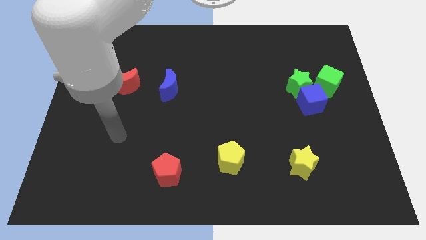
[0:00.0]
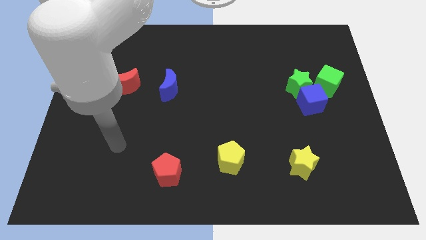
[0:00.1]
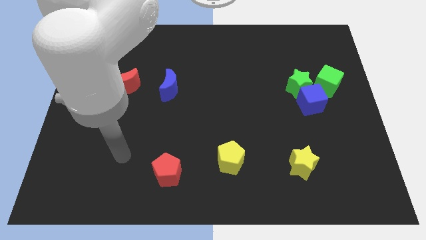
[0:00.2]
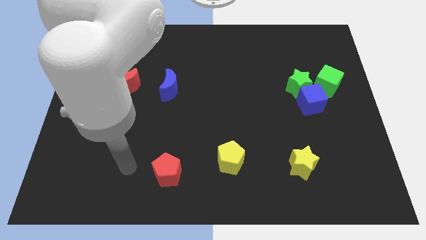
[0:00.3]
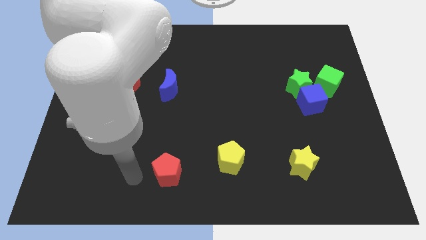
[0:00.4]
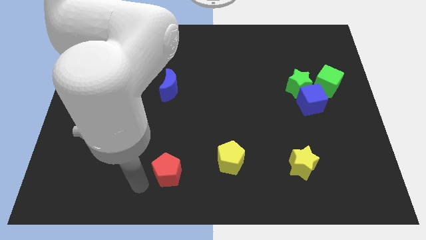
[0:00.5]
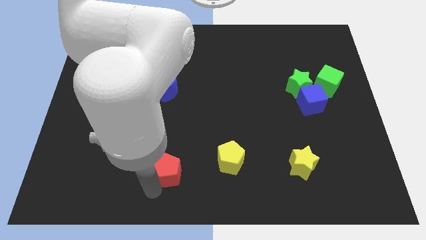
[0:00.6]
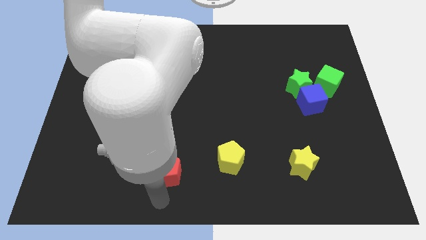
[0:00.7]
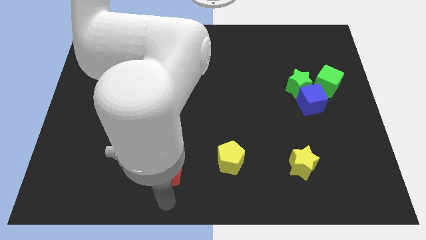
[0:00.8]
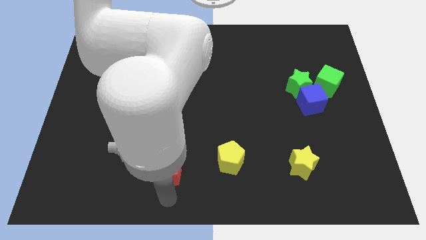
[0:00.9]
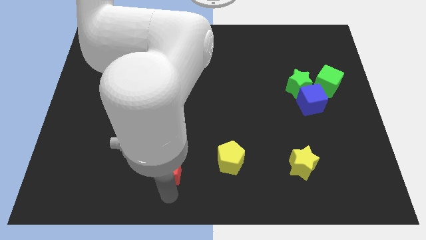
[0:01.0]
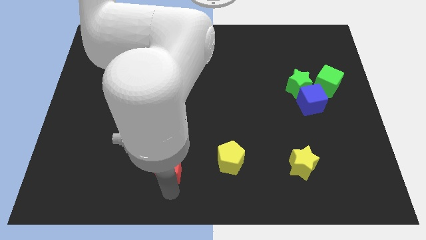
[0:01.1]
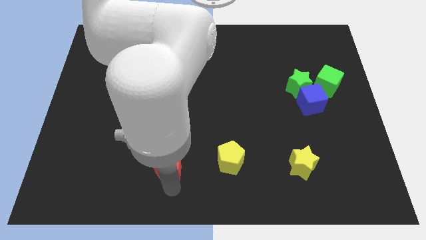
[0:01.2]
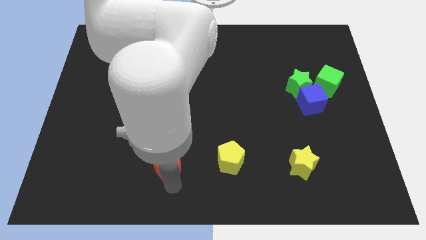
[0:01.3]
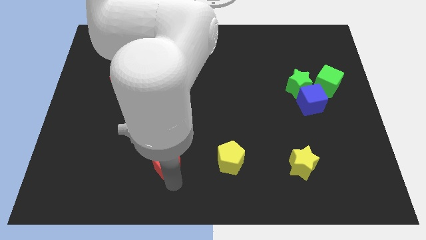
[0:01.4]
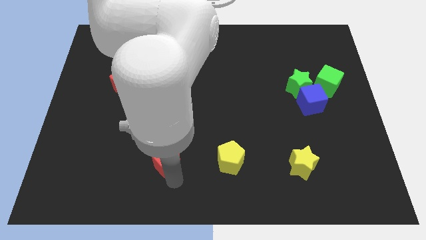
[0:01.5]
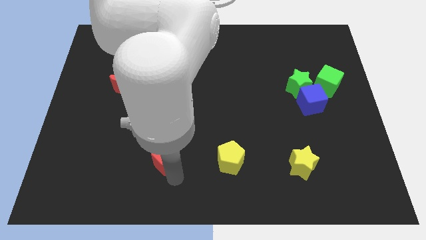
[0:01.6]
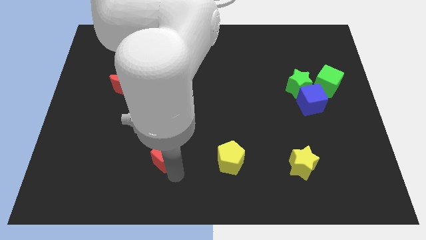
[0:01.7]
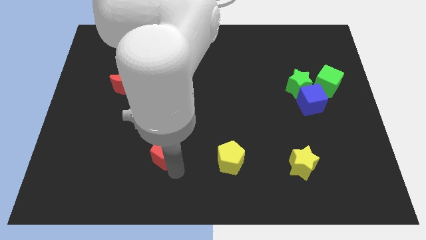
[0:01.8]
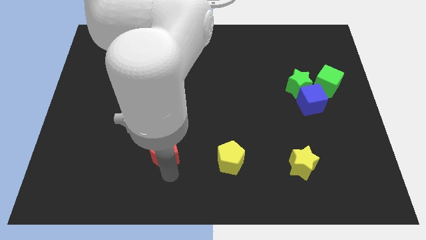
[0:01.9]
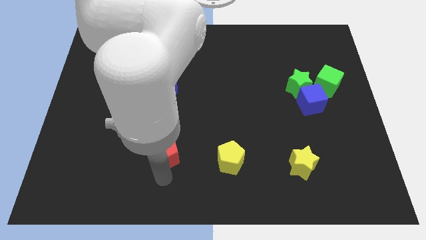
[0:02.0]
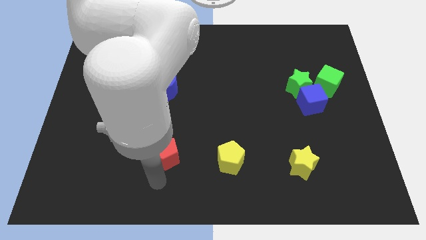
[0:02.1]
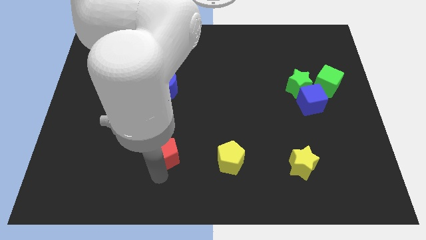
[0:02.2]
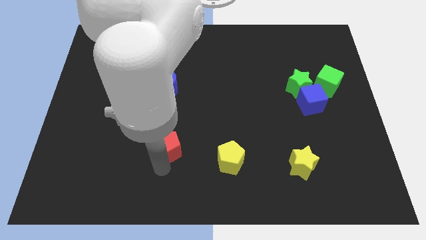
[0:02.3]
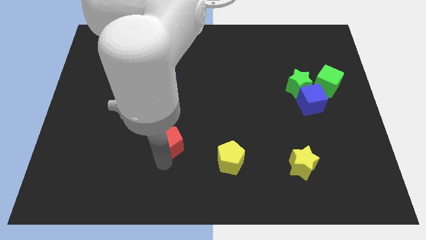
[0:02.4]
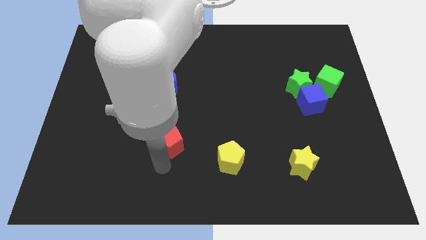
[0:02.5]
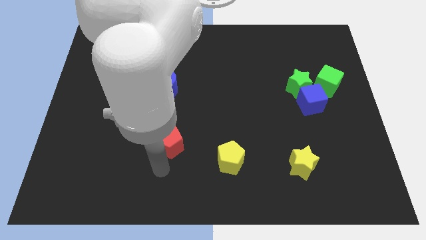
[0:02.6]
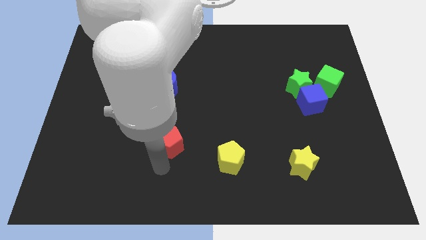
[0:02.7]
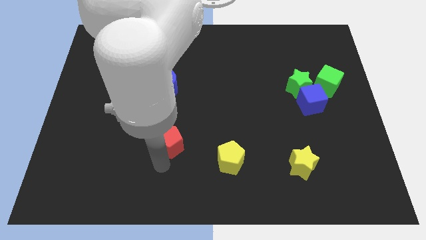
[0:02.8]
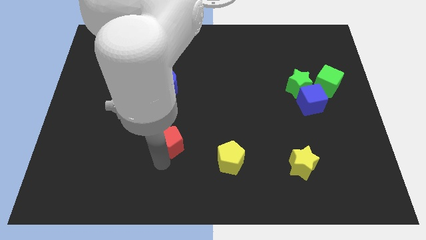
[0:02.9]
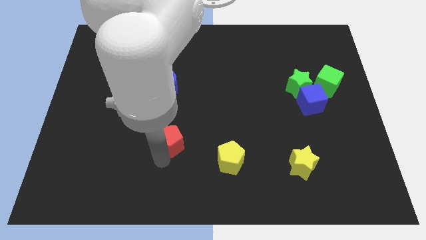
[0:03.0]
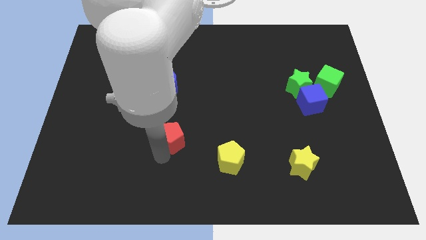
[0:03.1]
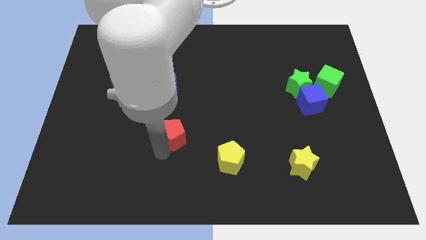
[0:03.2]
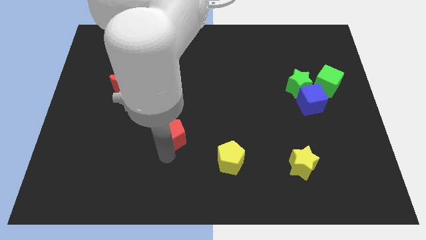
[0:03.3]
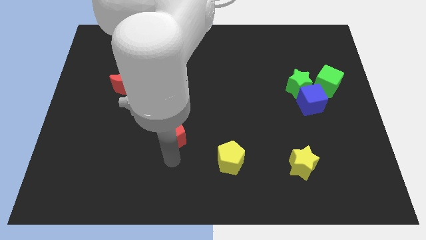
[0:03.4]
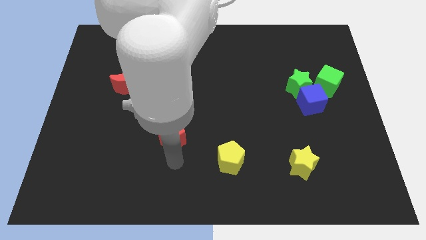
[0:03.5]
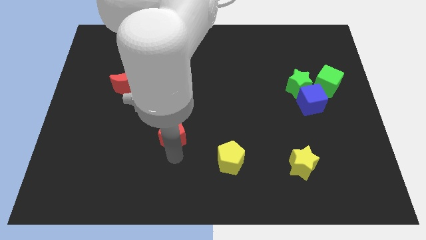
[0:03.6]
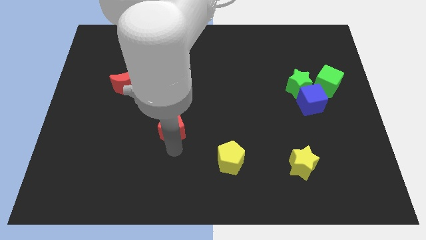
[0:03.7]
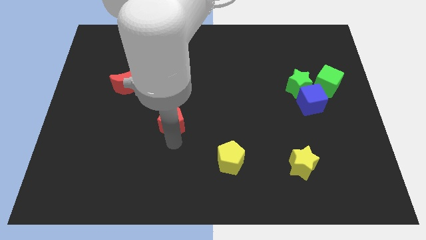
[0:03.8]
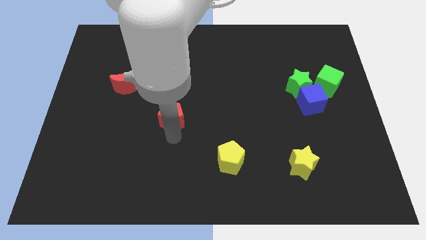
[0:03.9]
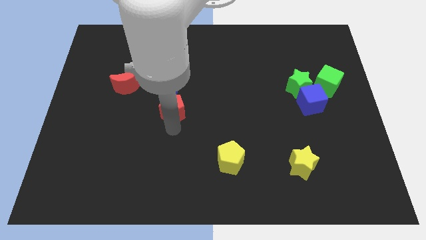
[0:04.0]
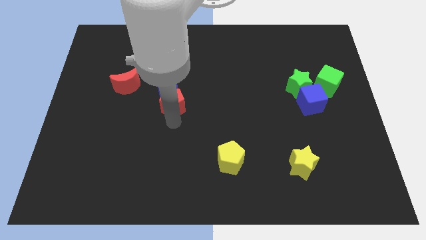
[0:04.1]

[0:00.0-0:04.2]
put the red pentagon towards the blue moon

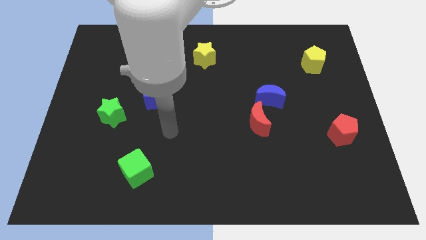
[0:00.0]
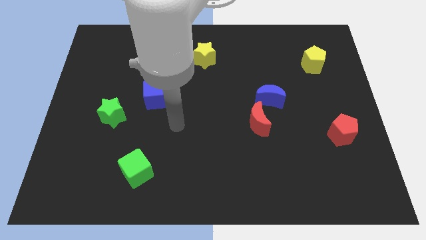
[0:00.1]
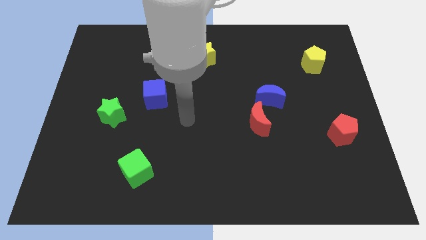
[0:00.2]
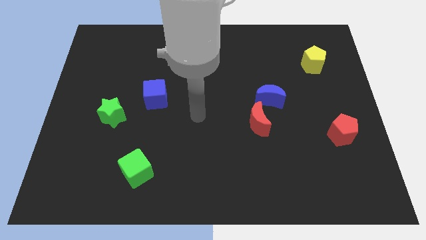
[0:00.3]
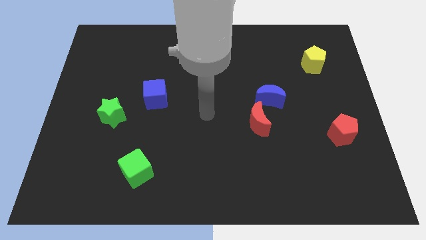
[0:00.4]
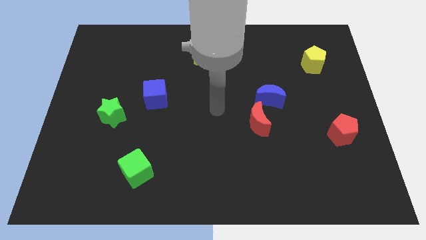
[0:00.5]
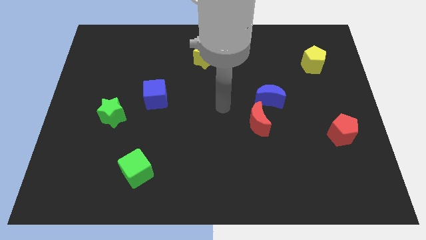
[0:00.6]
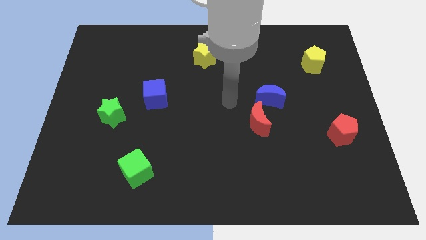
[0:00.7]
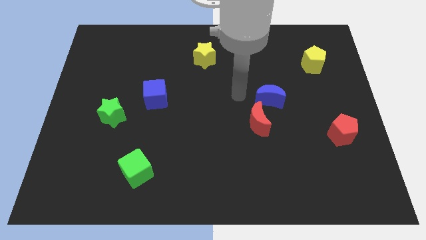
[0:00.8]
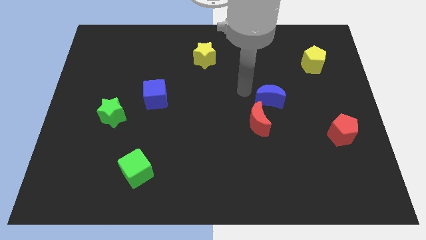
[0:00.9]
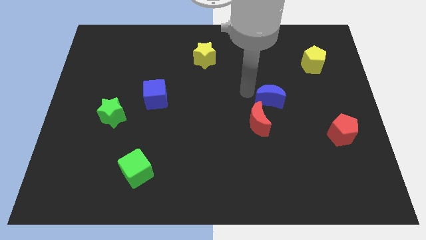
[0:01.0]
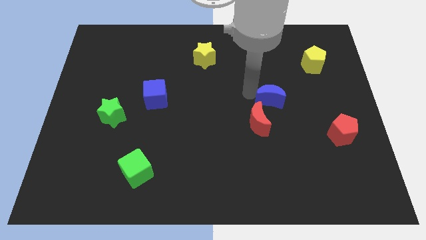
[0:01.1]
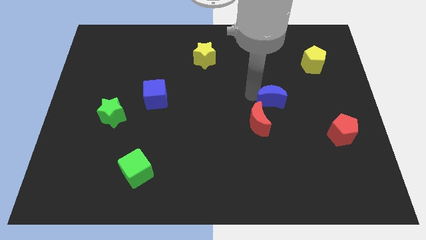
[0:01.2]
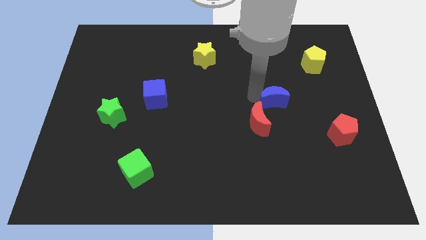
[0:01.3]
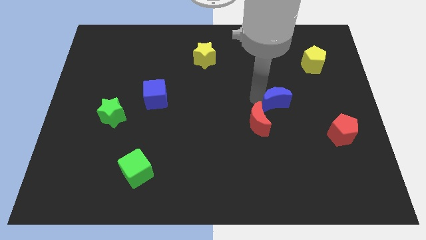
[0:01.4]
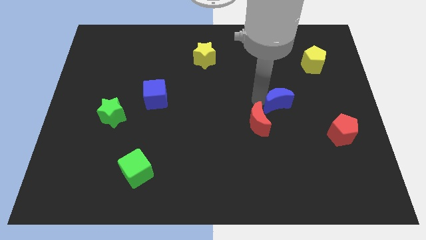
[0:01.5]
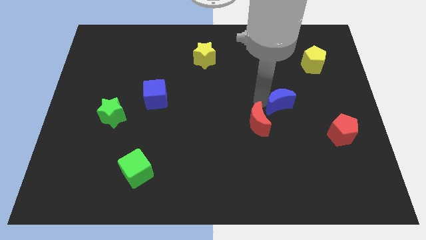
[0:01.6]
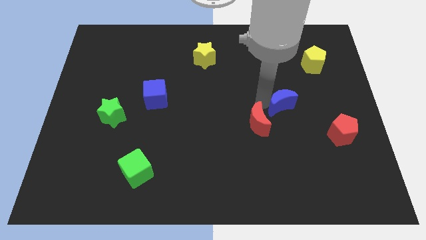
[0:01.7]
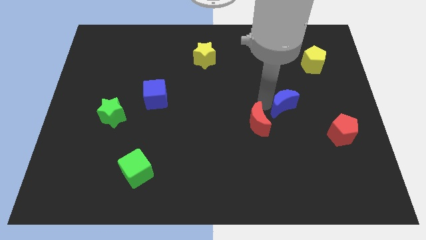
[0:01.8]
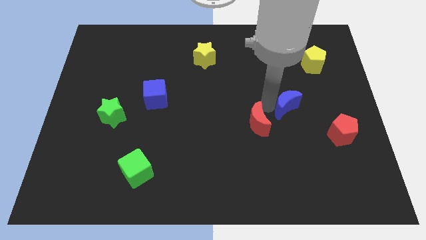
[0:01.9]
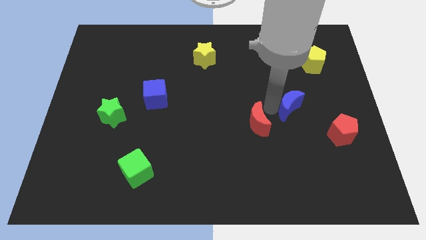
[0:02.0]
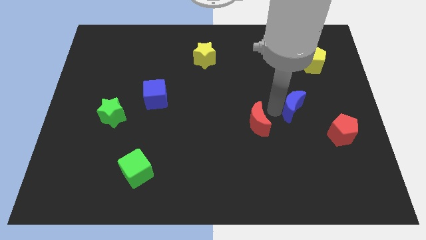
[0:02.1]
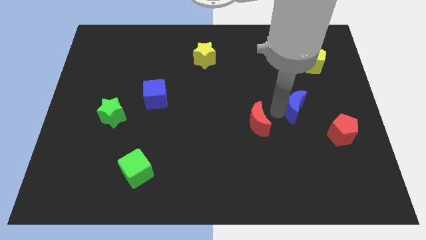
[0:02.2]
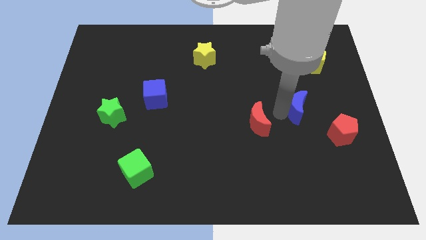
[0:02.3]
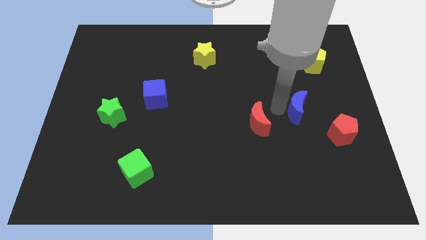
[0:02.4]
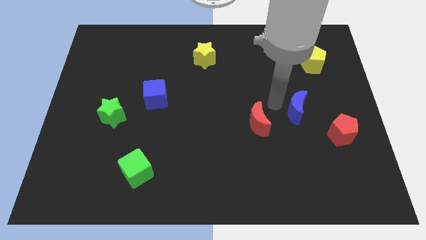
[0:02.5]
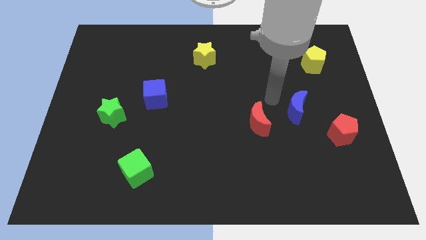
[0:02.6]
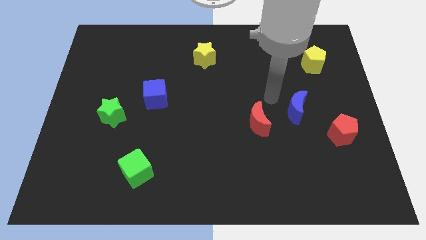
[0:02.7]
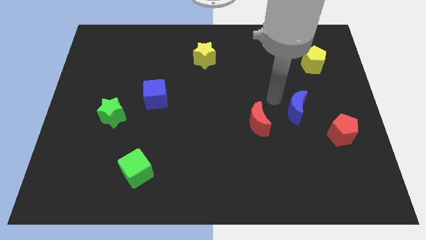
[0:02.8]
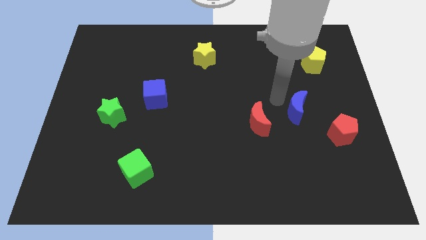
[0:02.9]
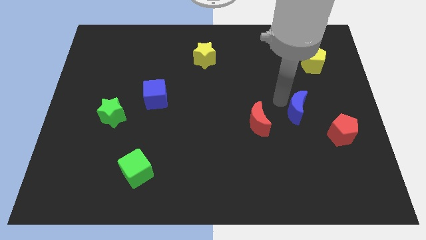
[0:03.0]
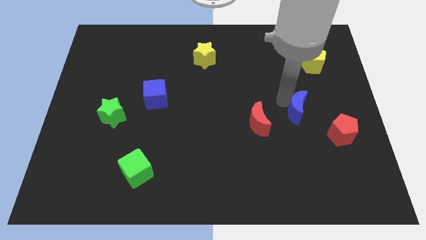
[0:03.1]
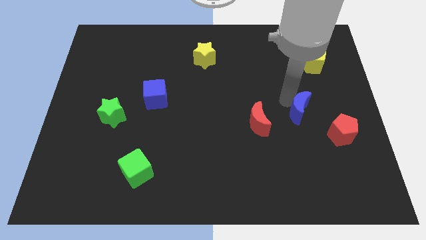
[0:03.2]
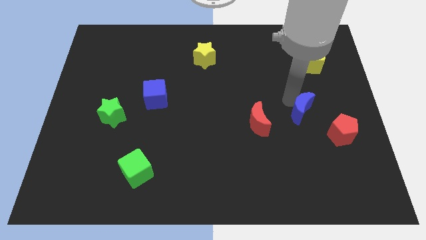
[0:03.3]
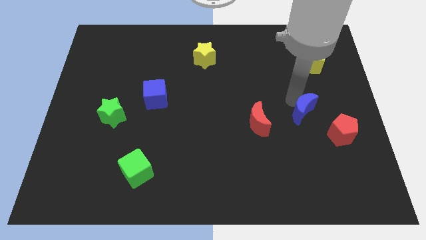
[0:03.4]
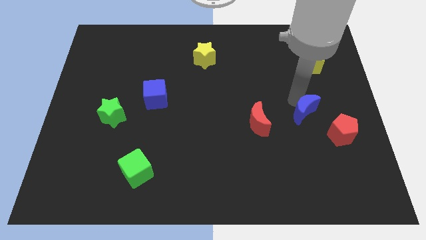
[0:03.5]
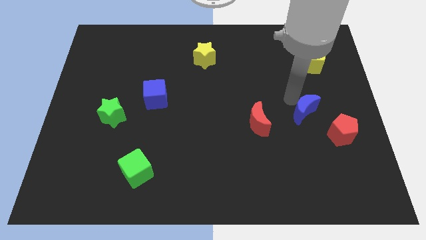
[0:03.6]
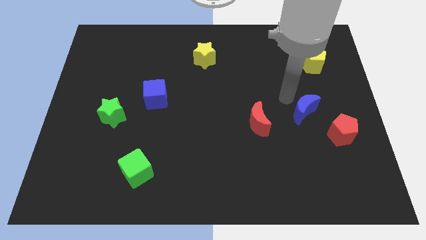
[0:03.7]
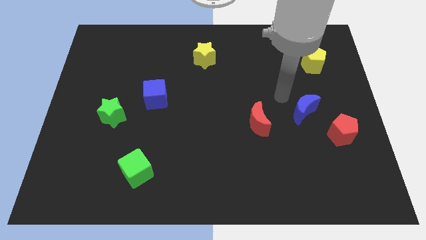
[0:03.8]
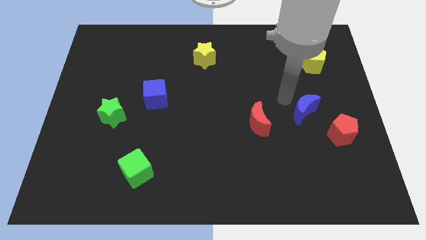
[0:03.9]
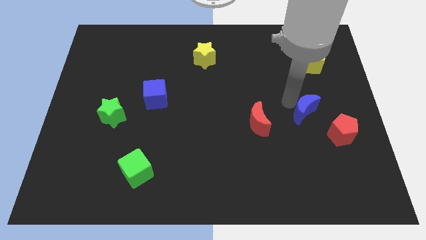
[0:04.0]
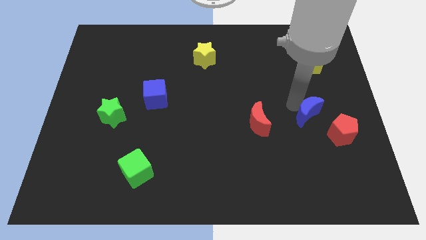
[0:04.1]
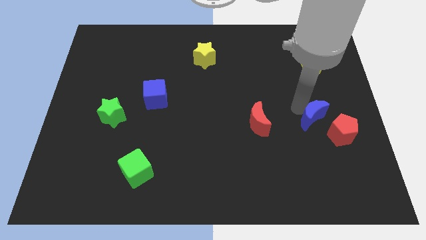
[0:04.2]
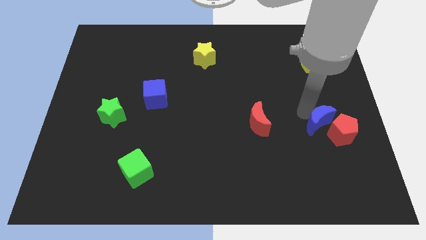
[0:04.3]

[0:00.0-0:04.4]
put the blue moon towards the red pentagon
